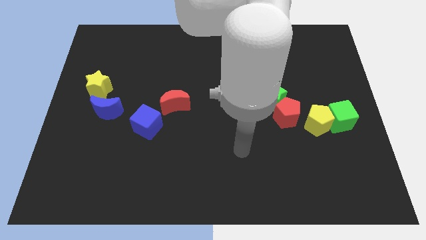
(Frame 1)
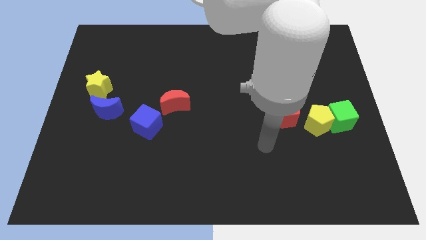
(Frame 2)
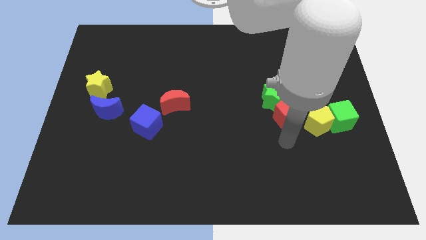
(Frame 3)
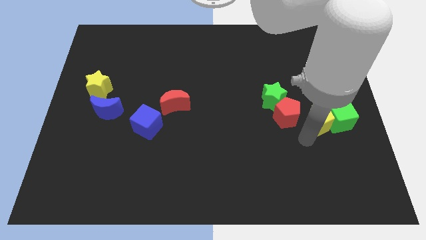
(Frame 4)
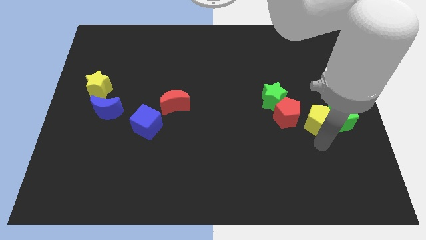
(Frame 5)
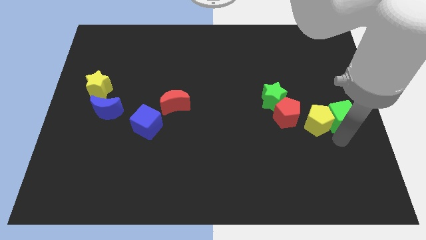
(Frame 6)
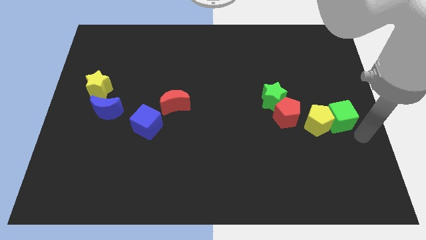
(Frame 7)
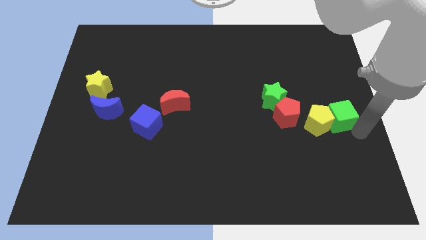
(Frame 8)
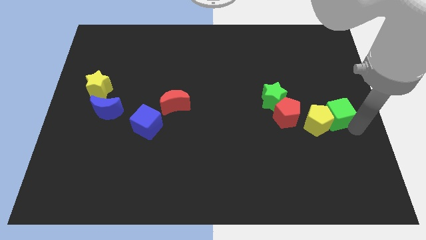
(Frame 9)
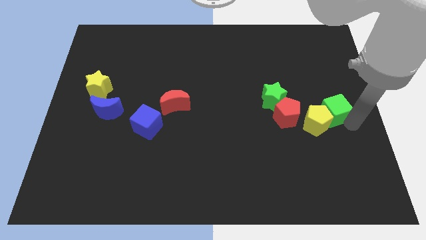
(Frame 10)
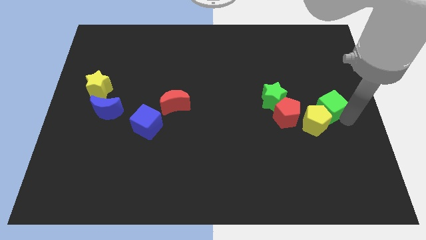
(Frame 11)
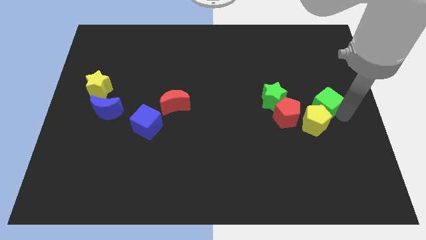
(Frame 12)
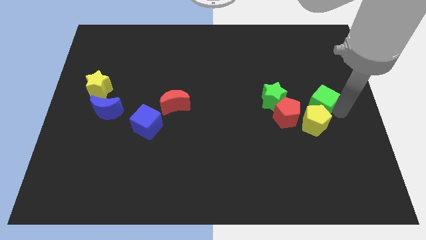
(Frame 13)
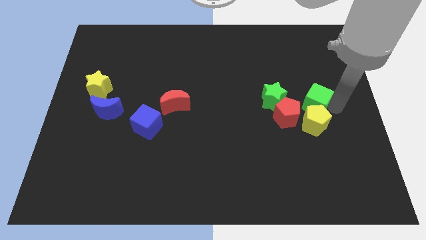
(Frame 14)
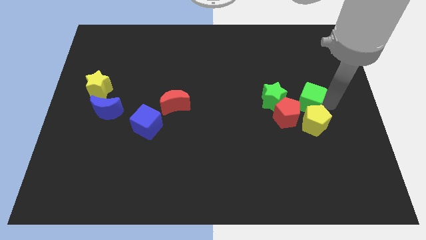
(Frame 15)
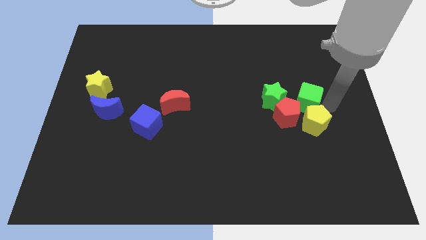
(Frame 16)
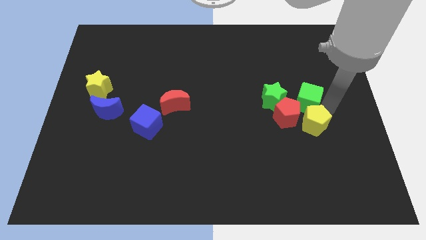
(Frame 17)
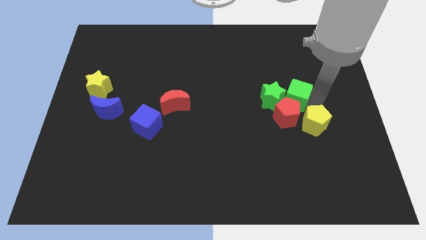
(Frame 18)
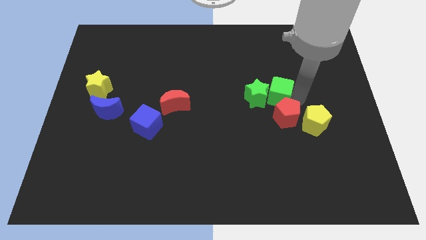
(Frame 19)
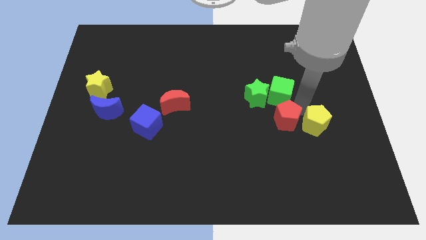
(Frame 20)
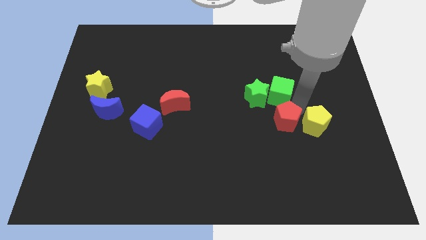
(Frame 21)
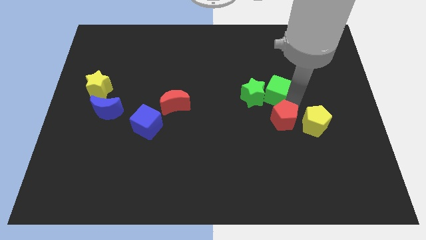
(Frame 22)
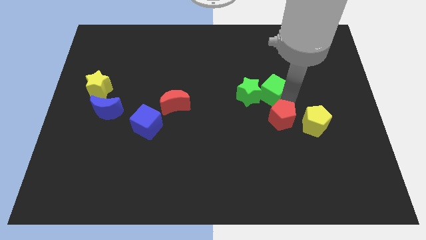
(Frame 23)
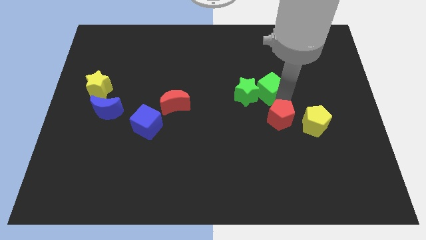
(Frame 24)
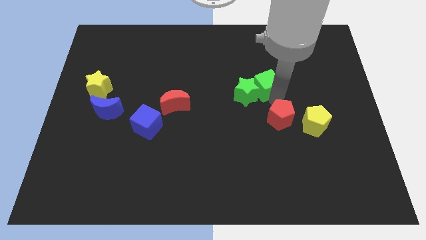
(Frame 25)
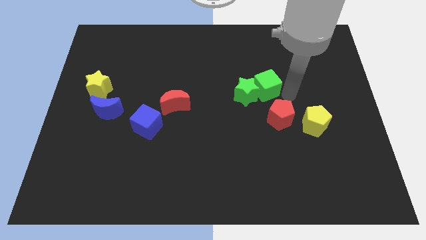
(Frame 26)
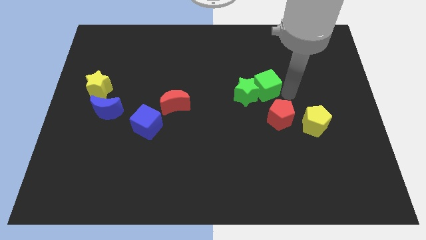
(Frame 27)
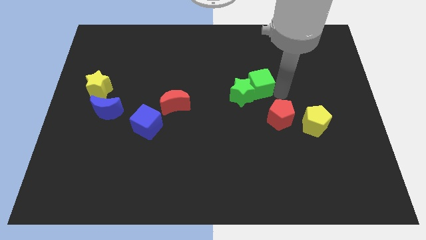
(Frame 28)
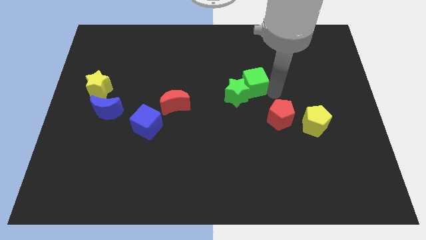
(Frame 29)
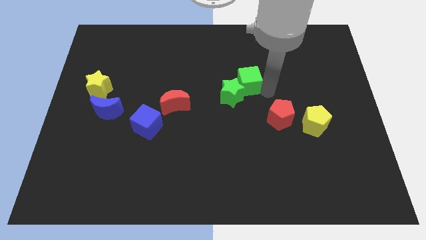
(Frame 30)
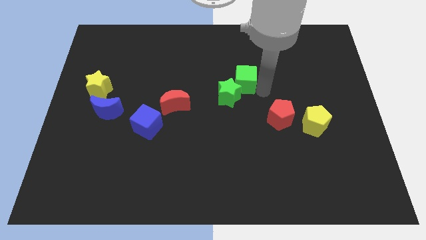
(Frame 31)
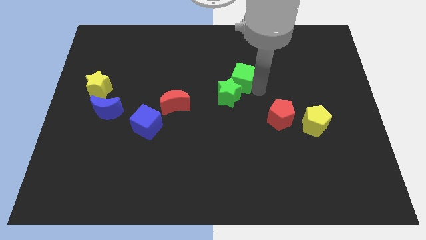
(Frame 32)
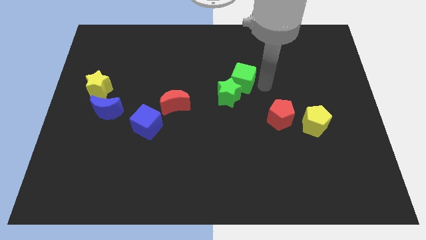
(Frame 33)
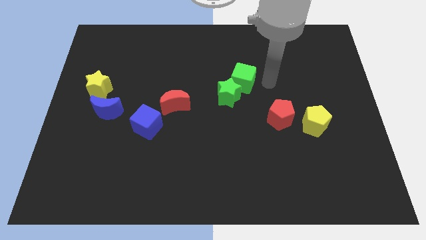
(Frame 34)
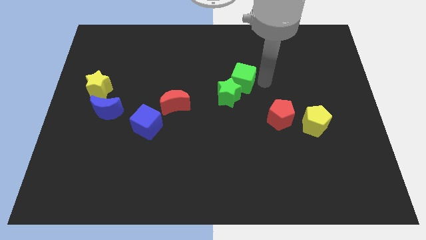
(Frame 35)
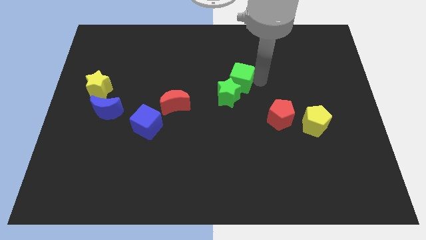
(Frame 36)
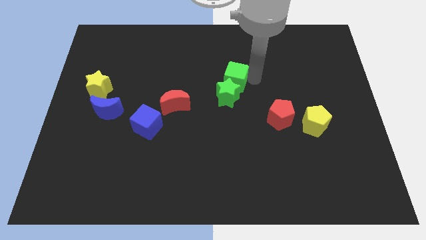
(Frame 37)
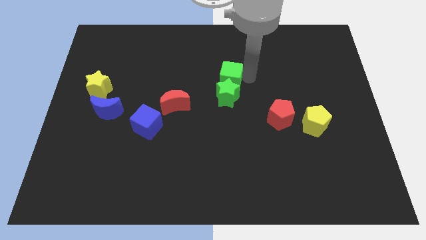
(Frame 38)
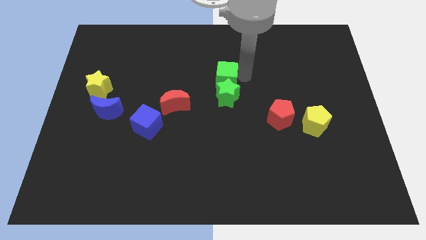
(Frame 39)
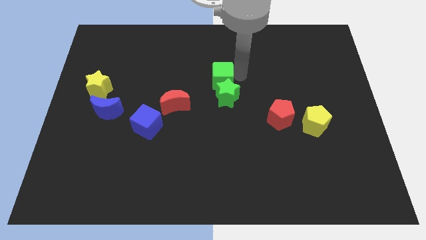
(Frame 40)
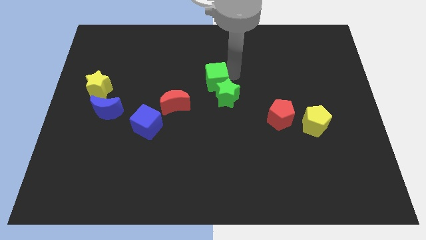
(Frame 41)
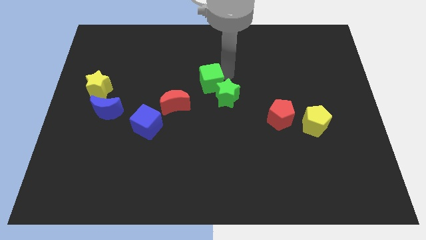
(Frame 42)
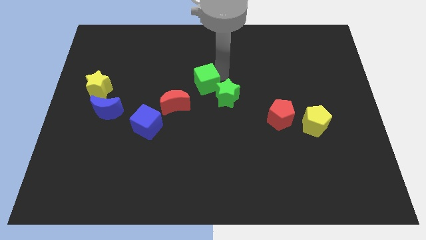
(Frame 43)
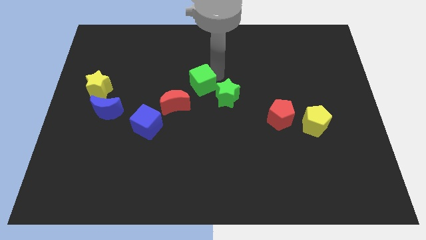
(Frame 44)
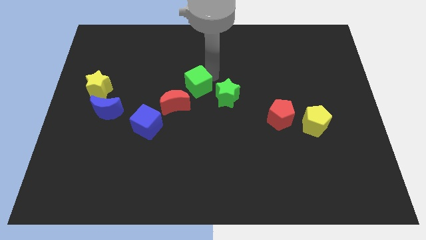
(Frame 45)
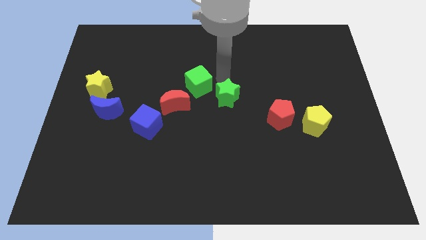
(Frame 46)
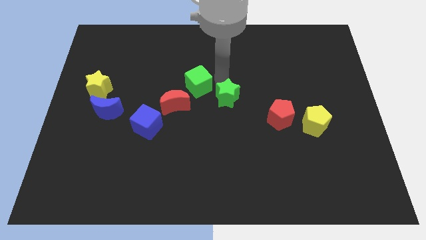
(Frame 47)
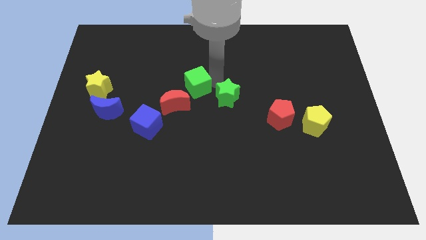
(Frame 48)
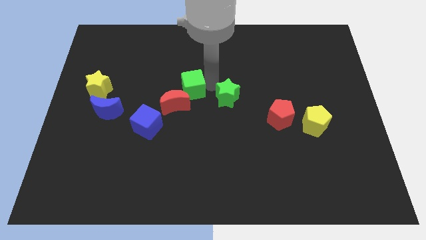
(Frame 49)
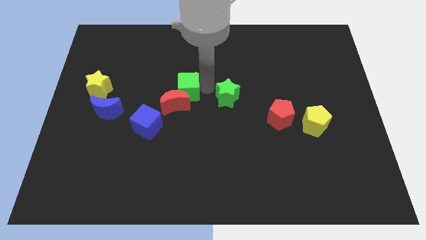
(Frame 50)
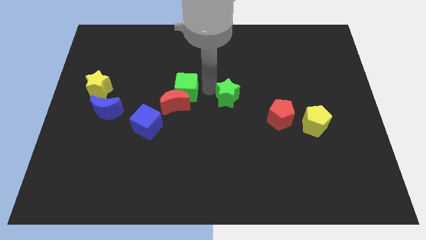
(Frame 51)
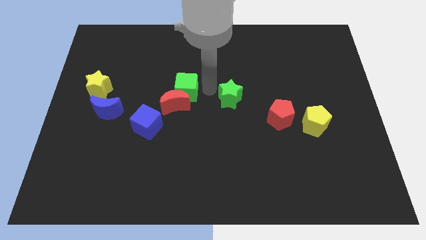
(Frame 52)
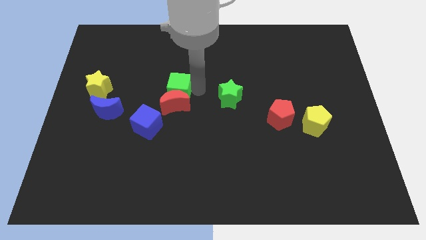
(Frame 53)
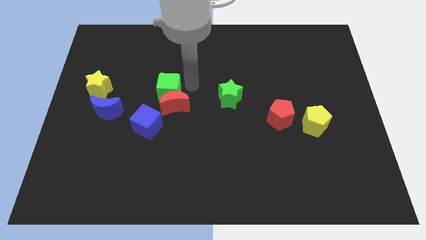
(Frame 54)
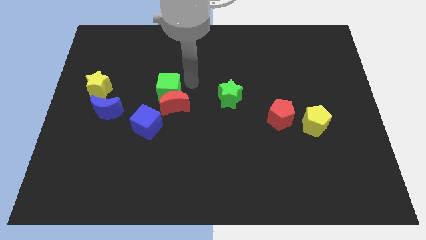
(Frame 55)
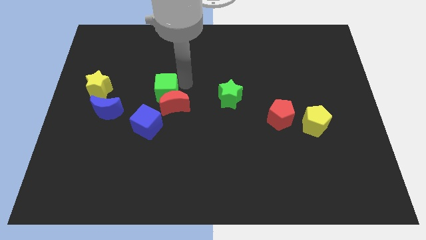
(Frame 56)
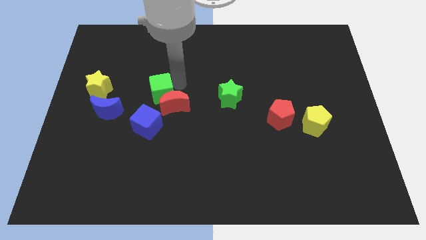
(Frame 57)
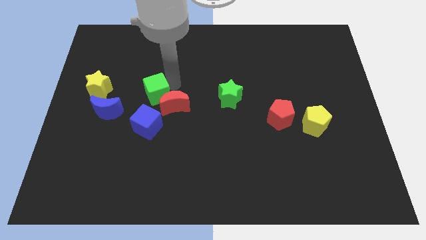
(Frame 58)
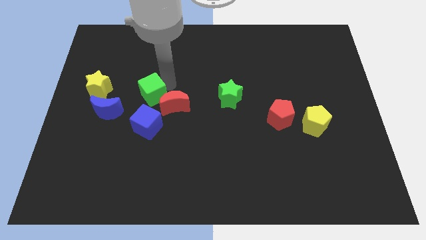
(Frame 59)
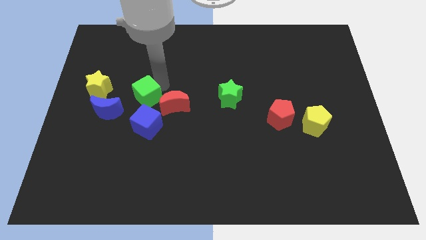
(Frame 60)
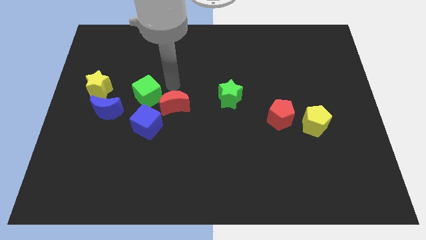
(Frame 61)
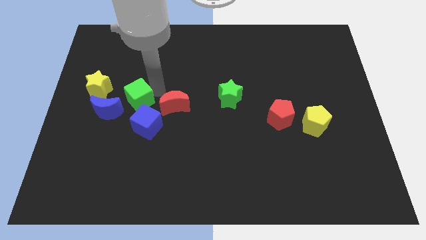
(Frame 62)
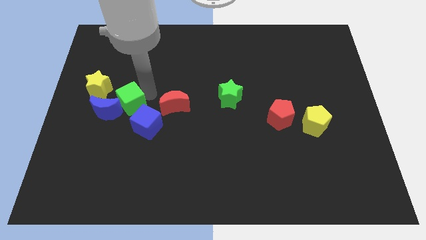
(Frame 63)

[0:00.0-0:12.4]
slide the green cube next to the blue moon
